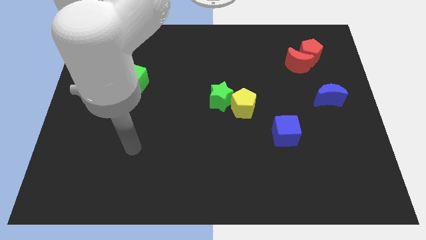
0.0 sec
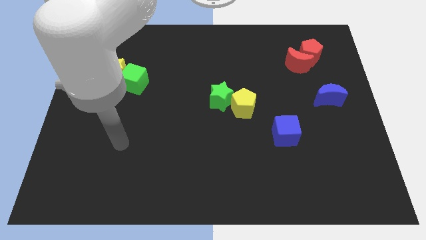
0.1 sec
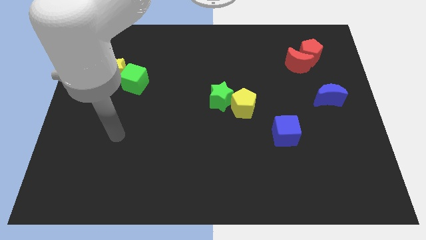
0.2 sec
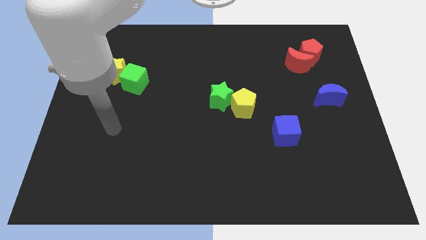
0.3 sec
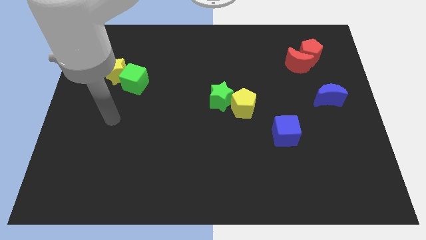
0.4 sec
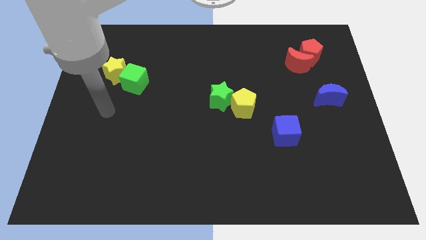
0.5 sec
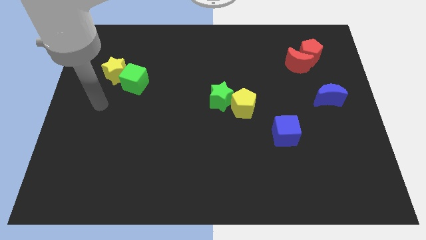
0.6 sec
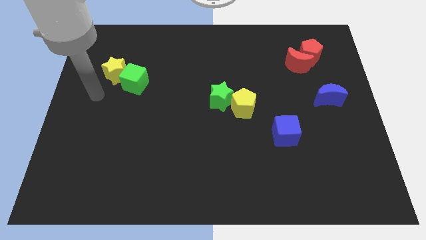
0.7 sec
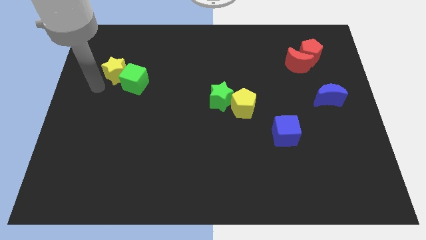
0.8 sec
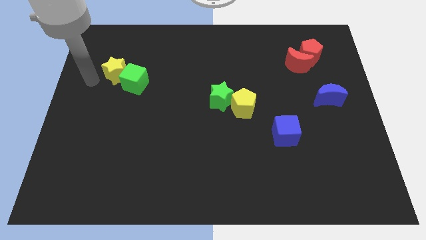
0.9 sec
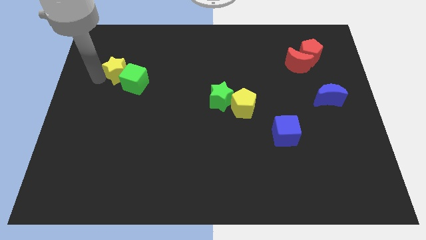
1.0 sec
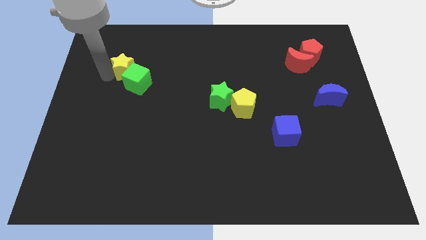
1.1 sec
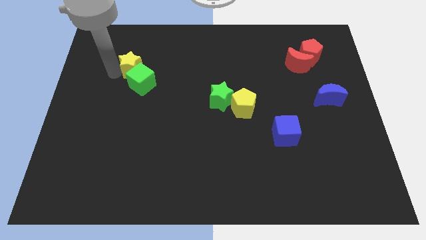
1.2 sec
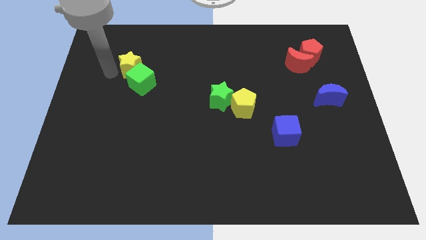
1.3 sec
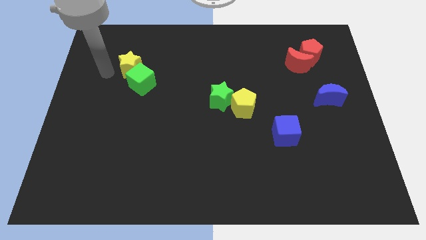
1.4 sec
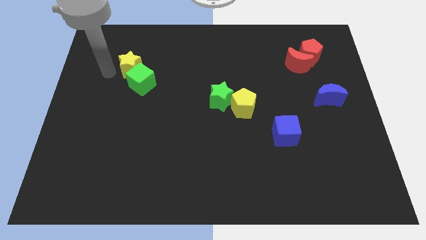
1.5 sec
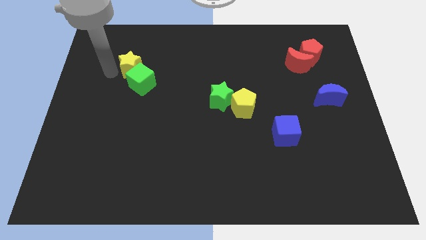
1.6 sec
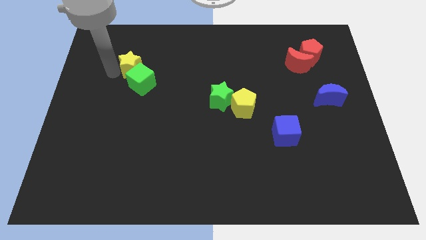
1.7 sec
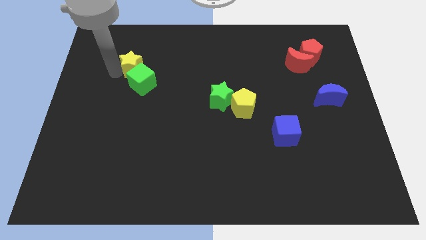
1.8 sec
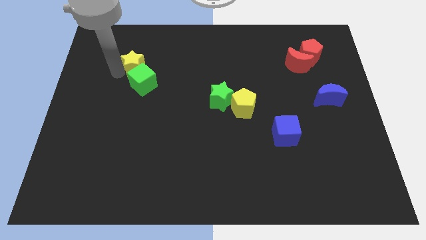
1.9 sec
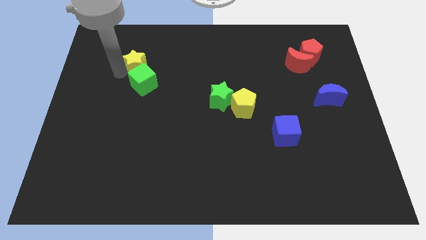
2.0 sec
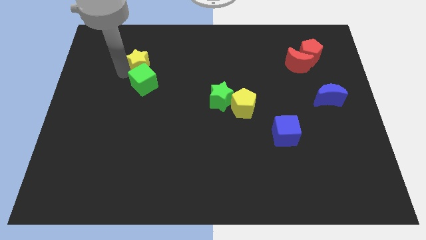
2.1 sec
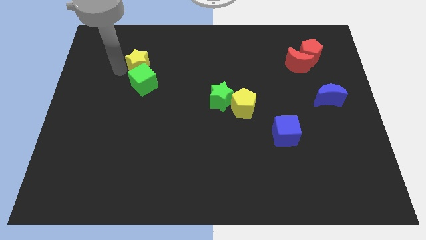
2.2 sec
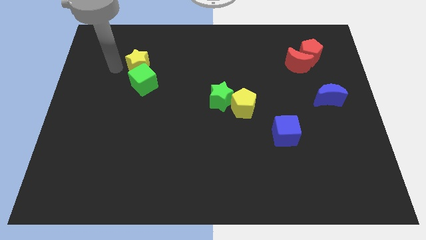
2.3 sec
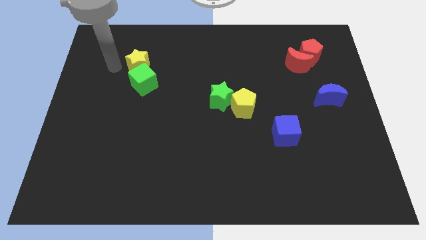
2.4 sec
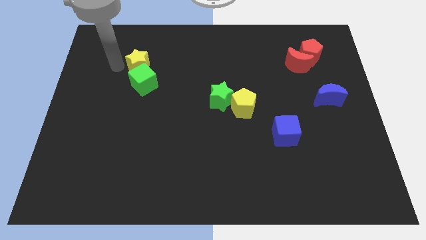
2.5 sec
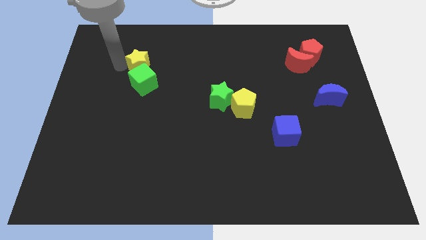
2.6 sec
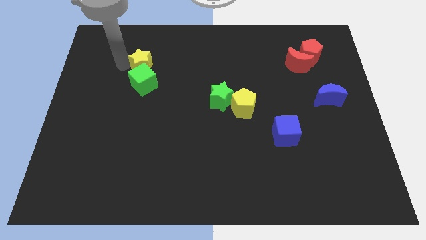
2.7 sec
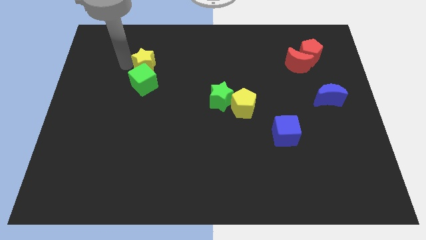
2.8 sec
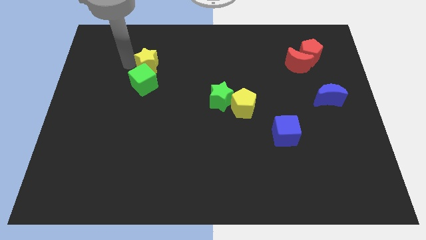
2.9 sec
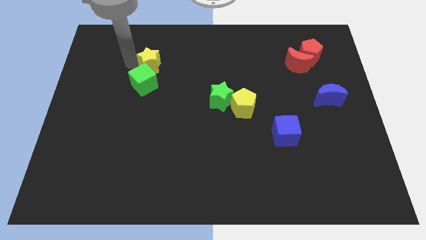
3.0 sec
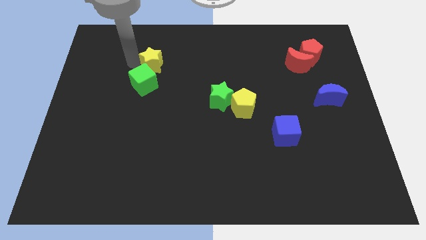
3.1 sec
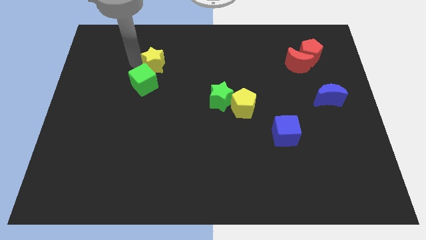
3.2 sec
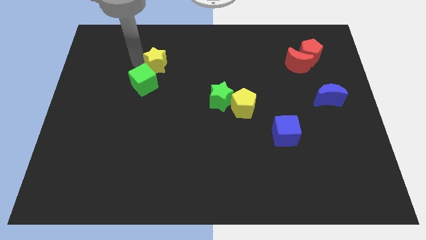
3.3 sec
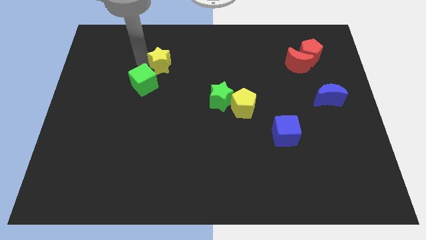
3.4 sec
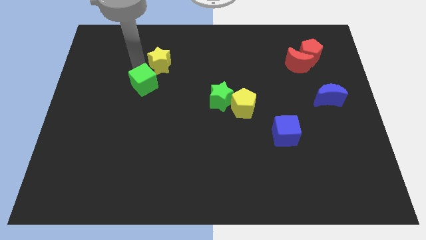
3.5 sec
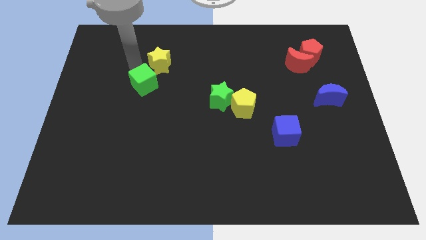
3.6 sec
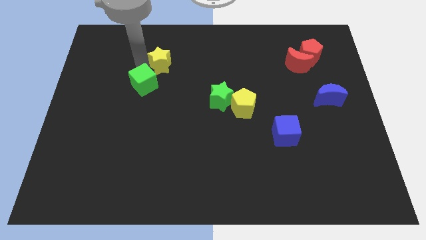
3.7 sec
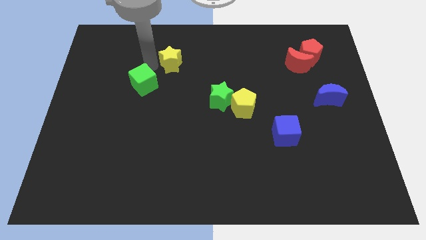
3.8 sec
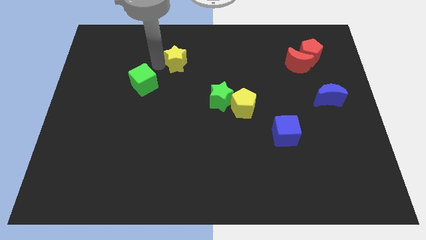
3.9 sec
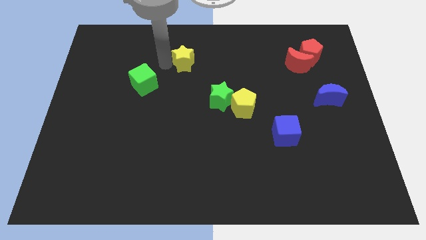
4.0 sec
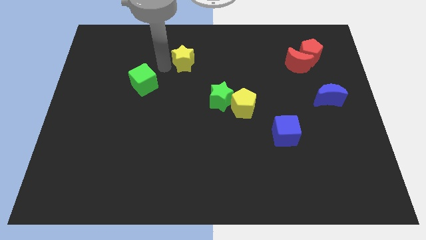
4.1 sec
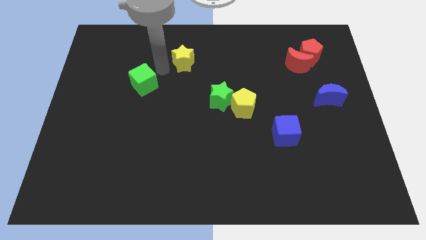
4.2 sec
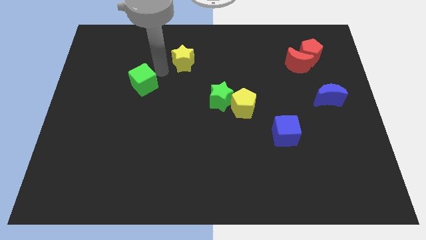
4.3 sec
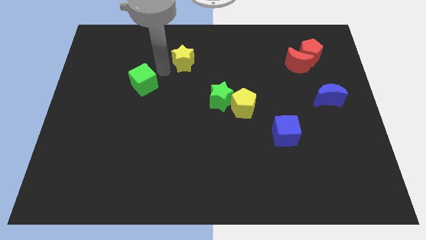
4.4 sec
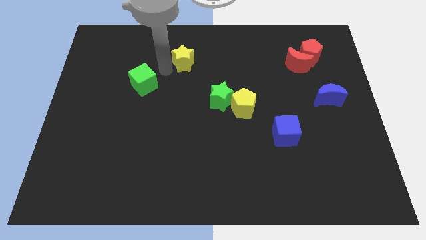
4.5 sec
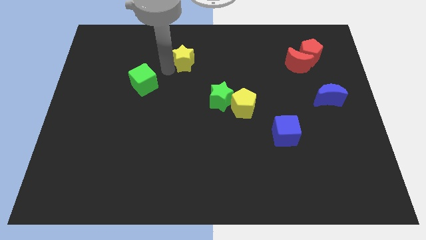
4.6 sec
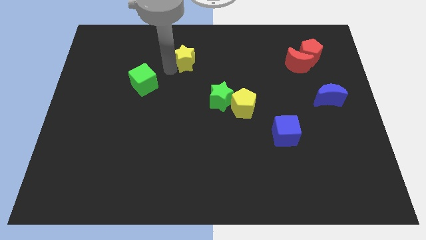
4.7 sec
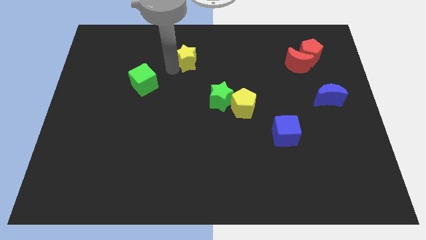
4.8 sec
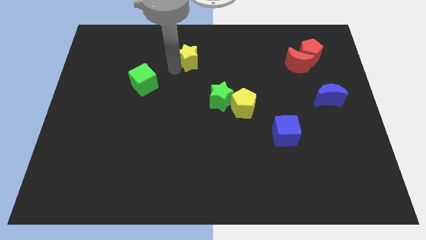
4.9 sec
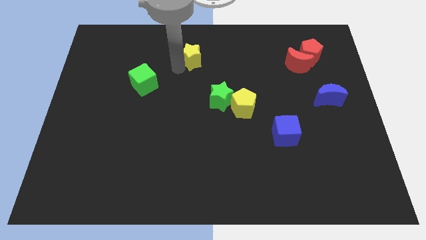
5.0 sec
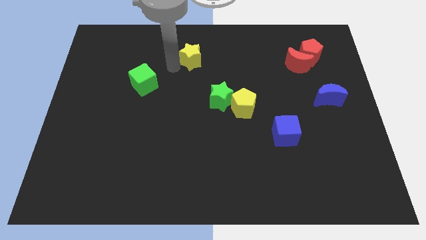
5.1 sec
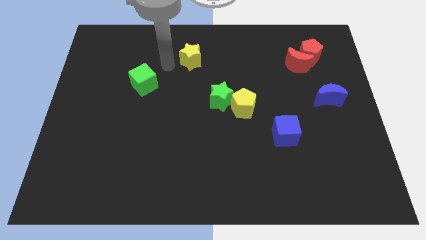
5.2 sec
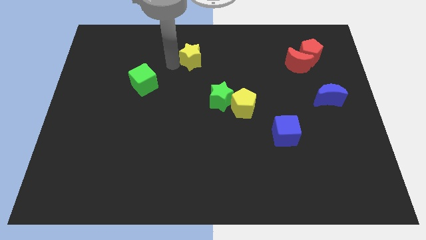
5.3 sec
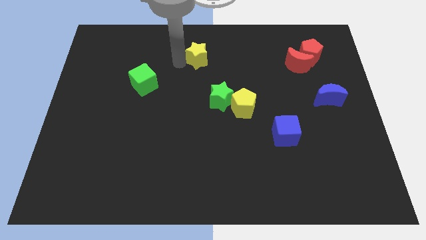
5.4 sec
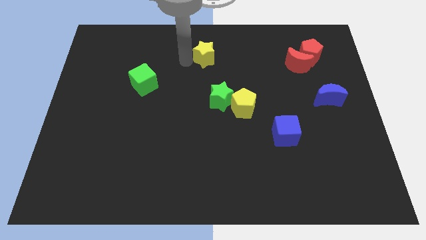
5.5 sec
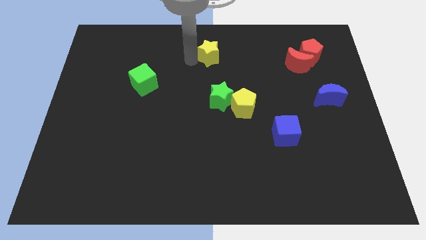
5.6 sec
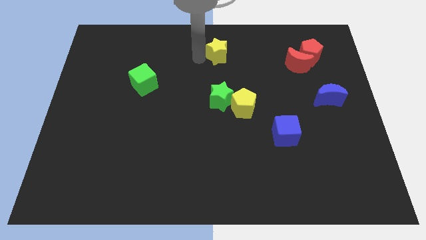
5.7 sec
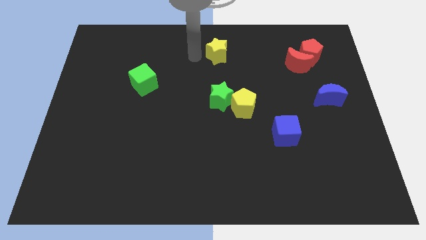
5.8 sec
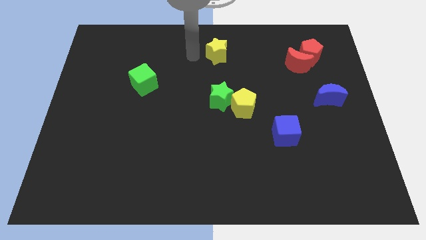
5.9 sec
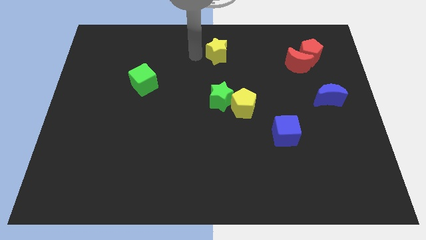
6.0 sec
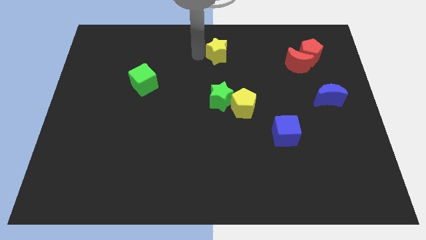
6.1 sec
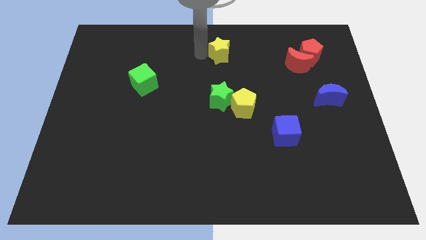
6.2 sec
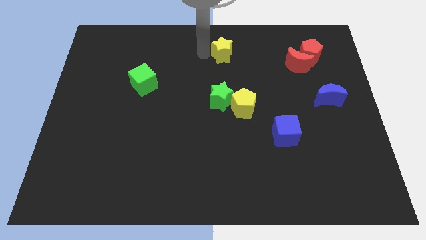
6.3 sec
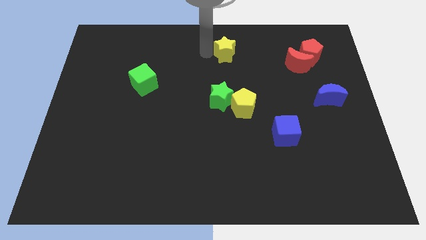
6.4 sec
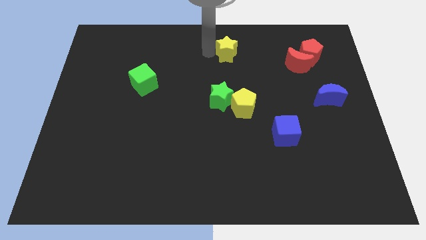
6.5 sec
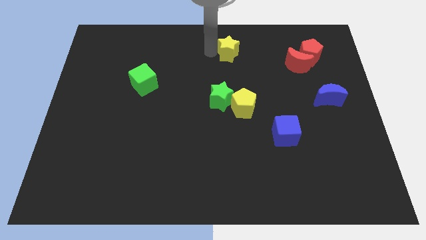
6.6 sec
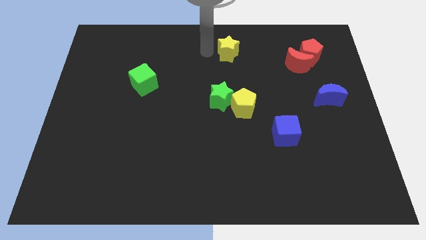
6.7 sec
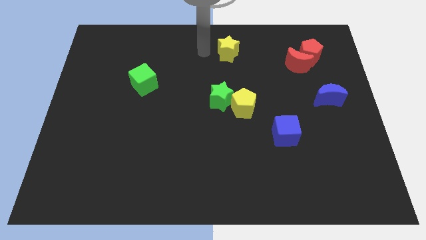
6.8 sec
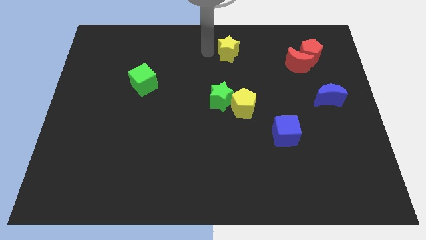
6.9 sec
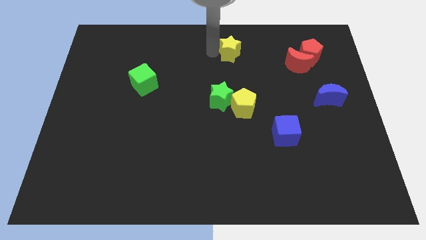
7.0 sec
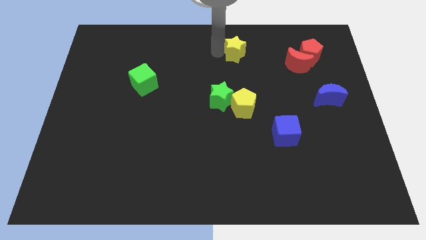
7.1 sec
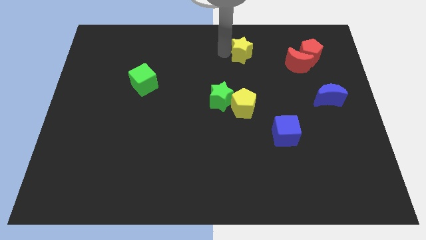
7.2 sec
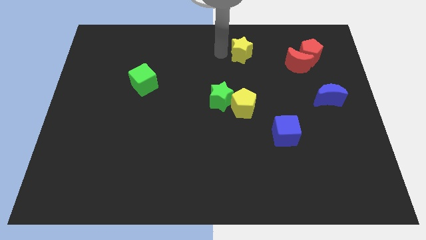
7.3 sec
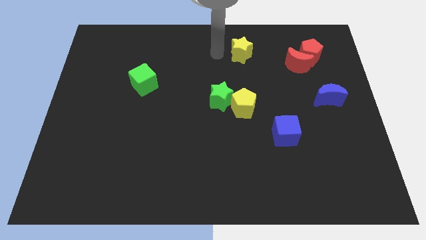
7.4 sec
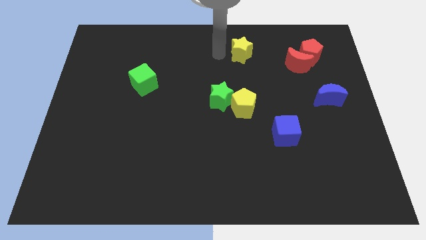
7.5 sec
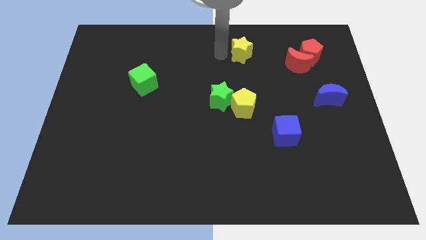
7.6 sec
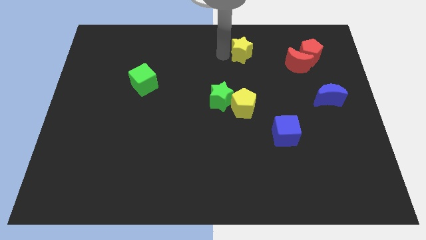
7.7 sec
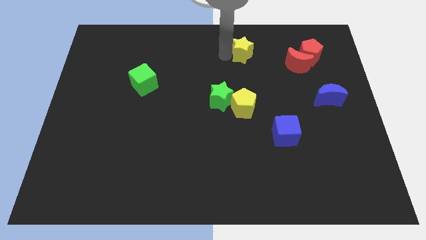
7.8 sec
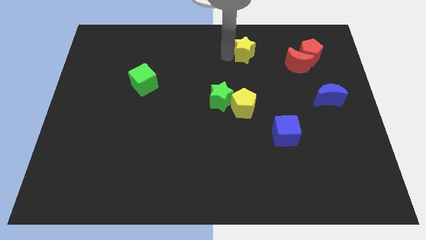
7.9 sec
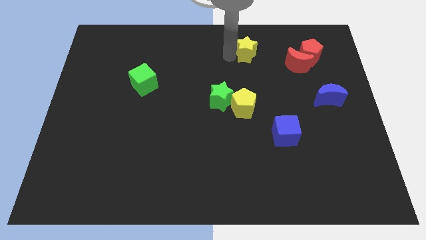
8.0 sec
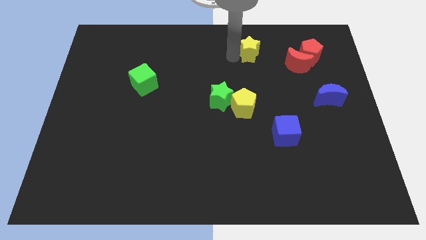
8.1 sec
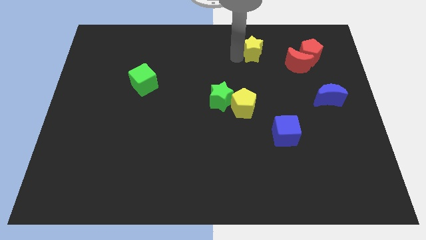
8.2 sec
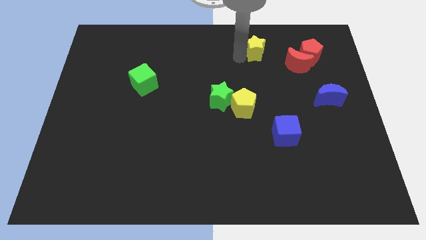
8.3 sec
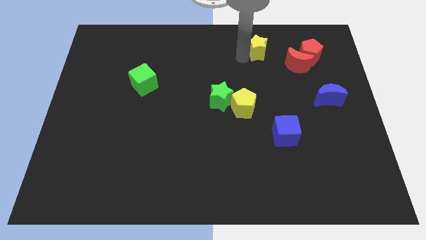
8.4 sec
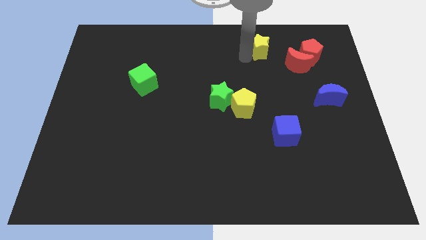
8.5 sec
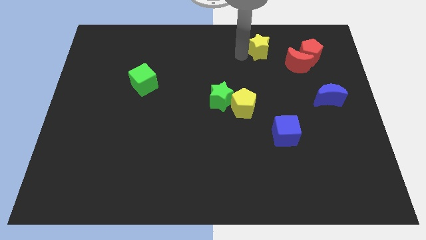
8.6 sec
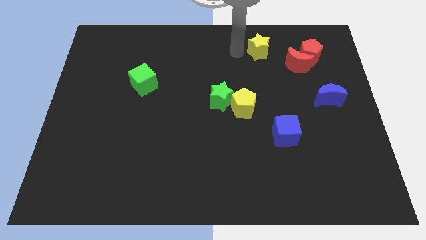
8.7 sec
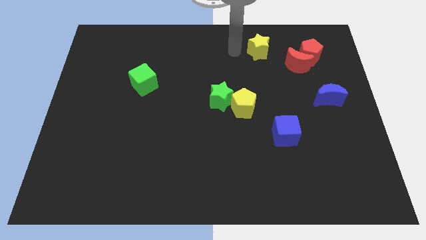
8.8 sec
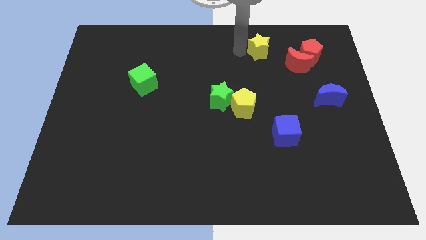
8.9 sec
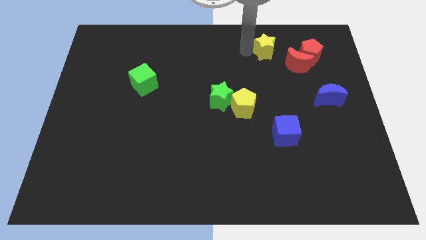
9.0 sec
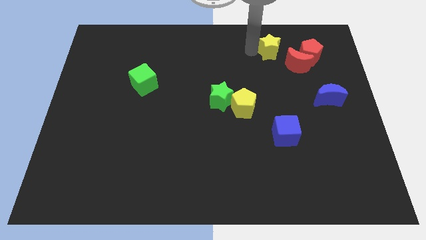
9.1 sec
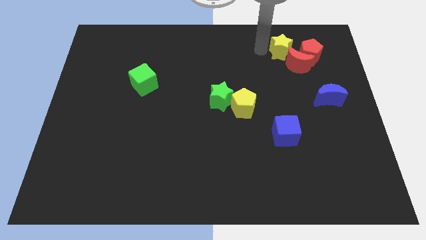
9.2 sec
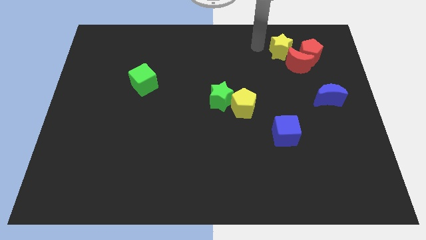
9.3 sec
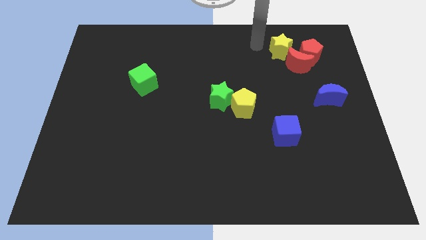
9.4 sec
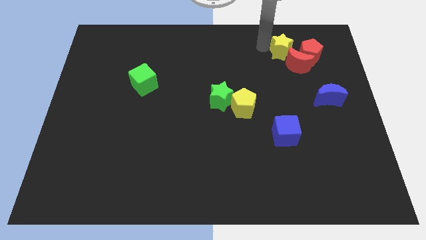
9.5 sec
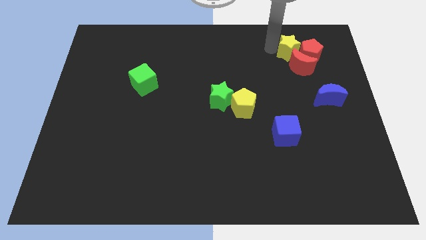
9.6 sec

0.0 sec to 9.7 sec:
put the yellow star towards the red pentagon
